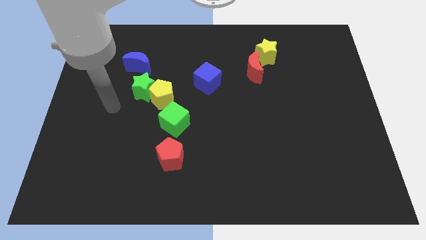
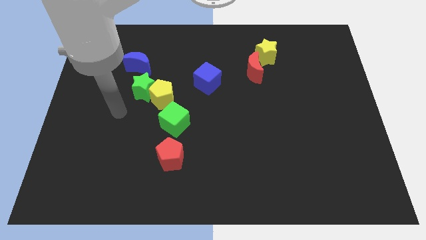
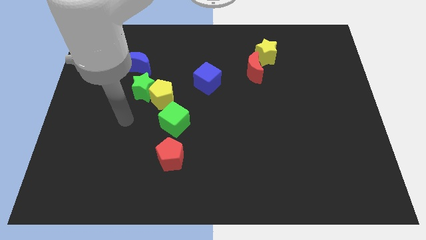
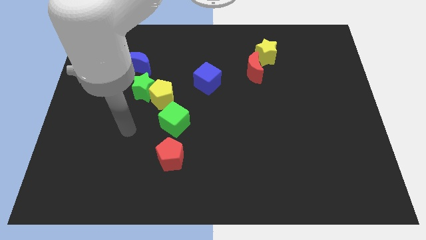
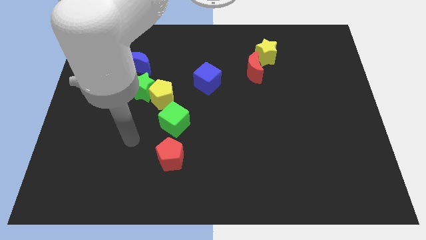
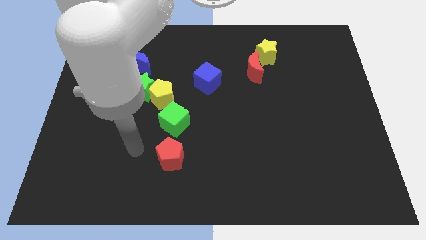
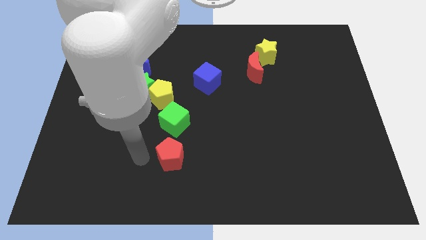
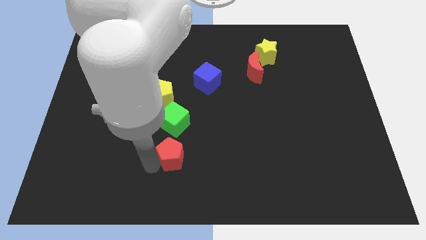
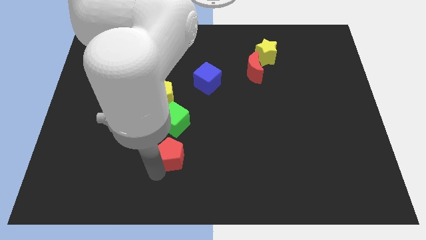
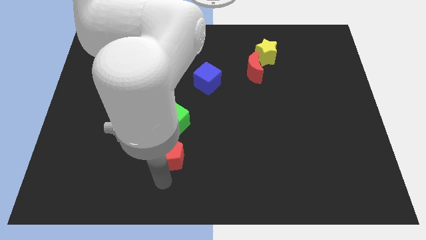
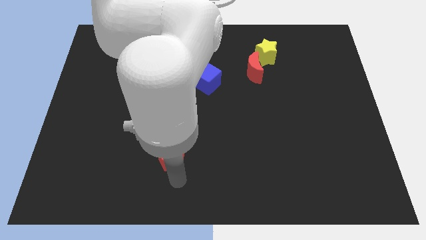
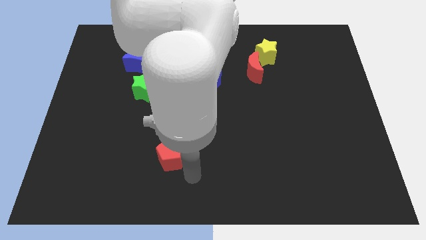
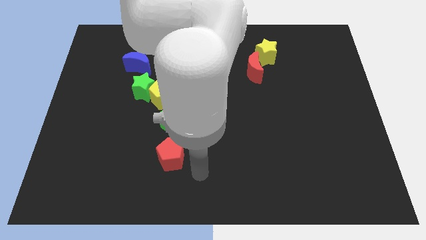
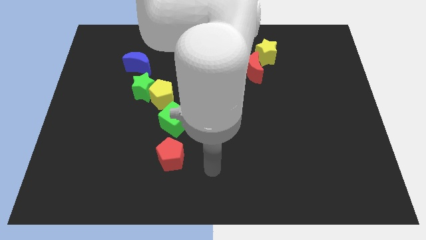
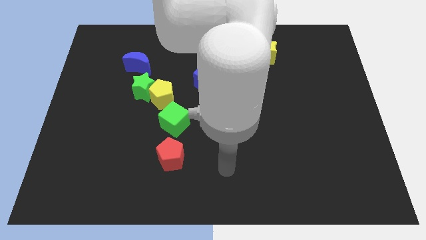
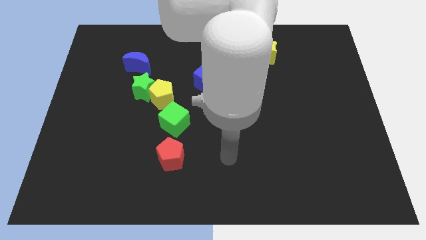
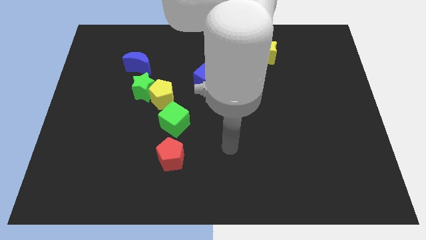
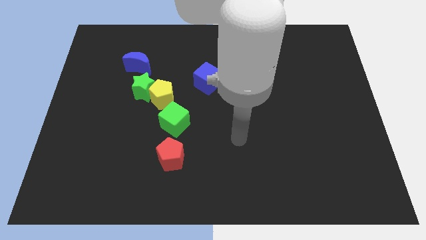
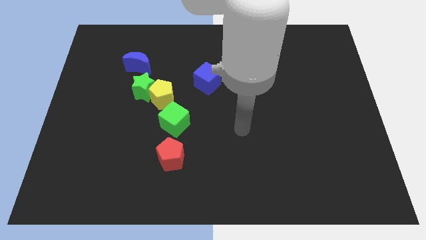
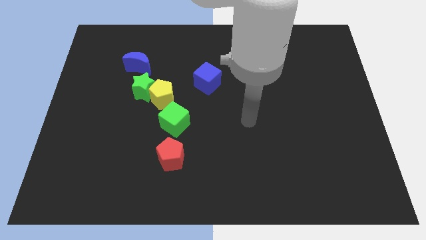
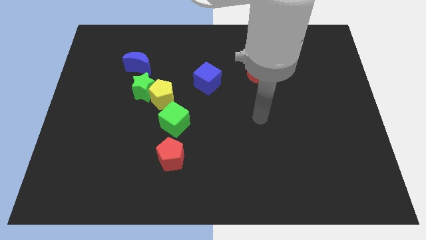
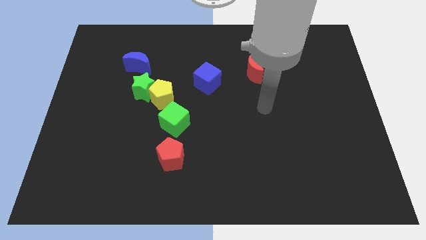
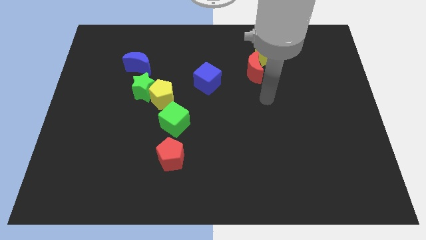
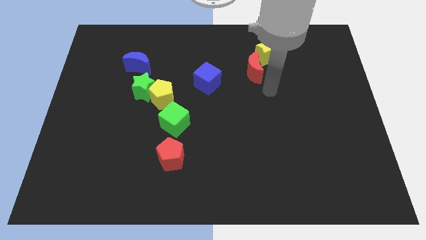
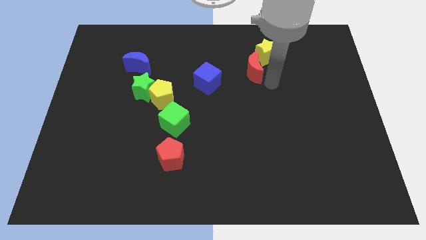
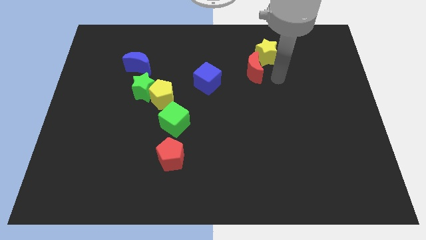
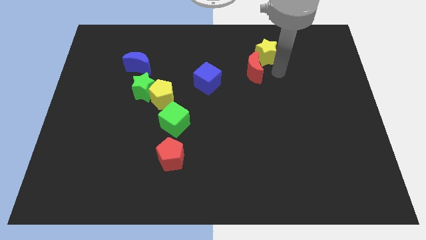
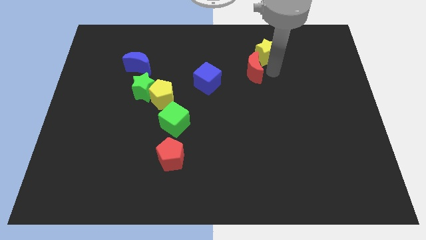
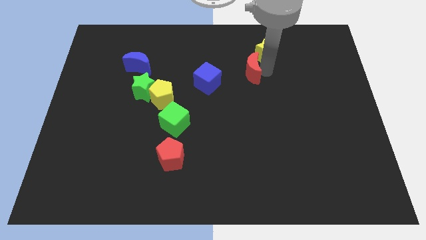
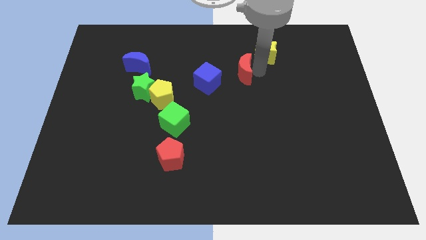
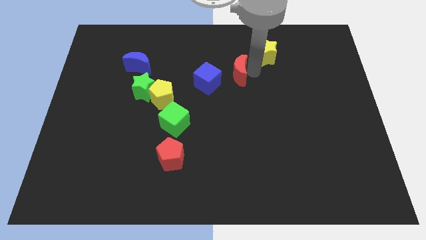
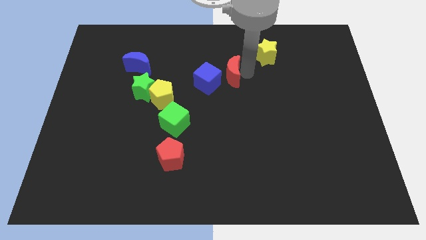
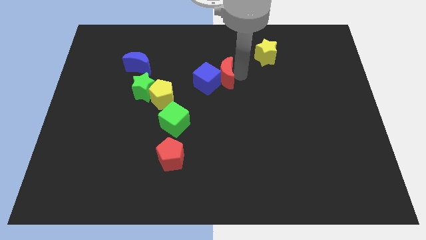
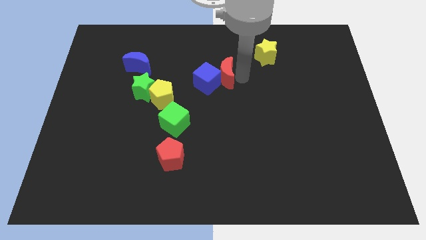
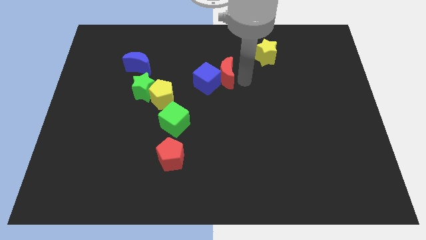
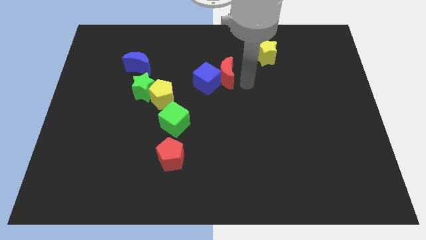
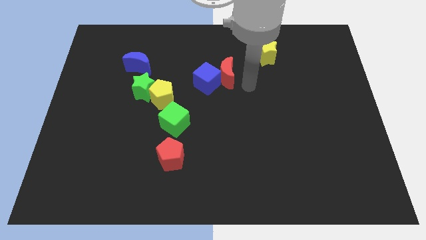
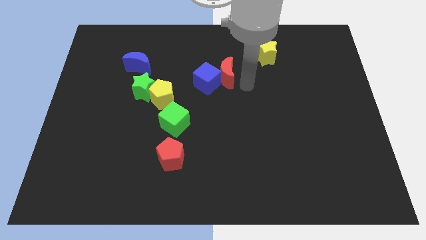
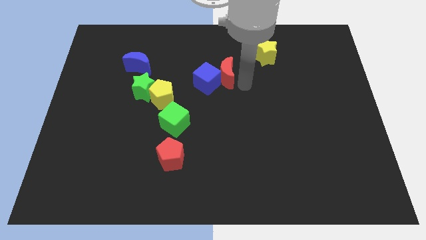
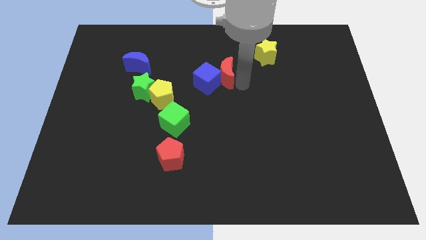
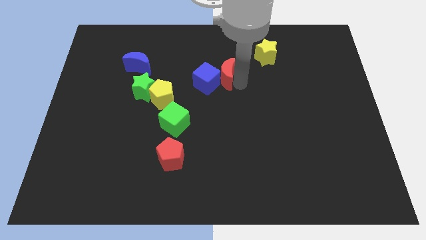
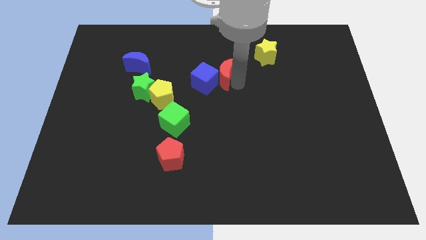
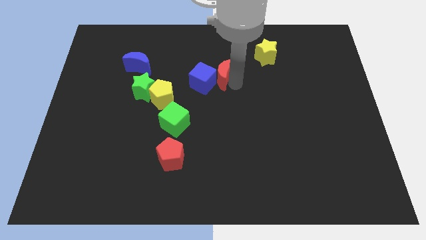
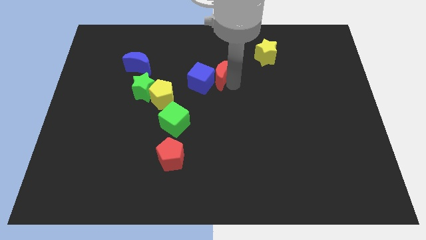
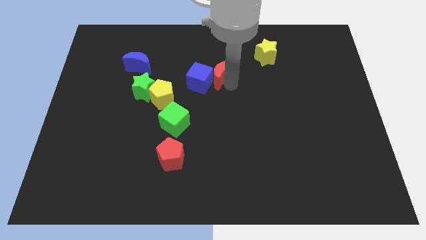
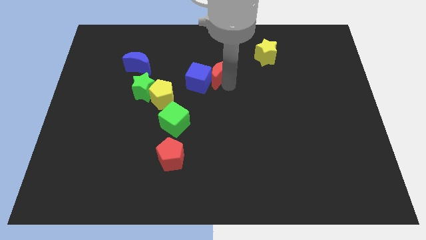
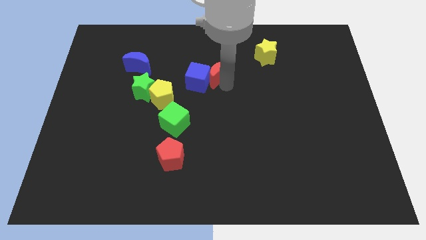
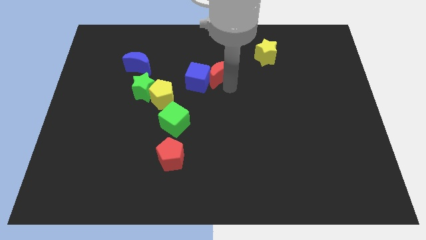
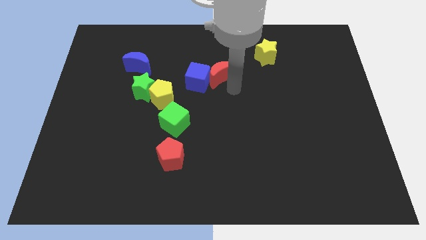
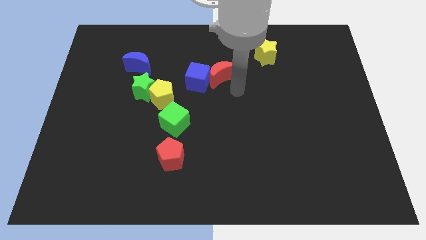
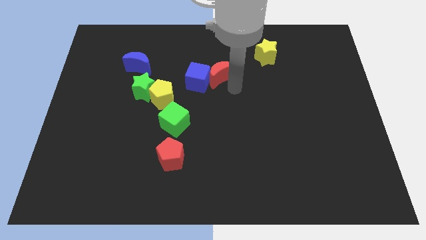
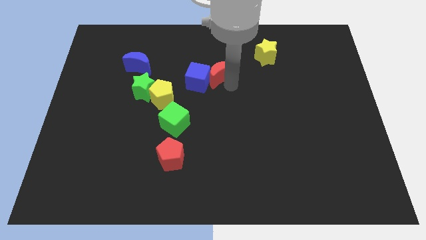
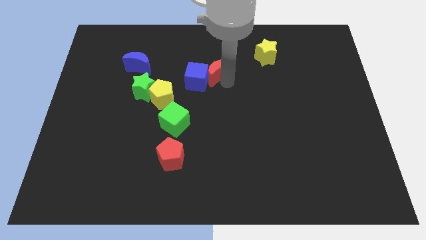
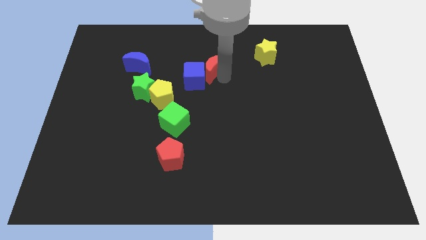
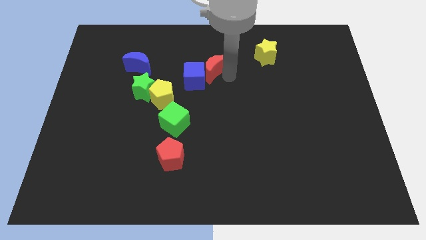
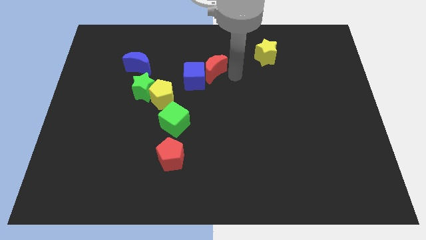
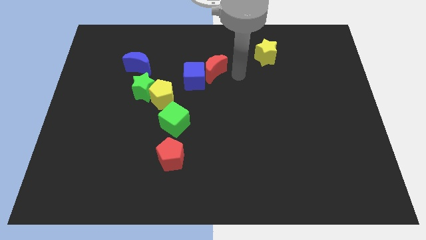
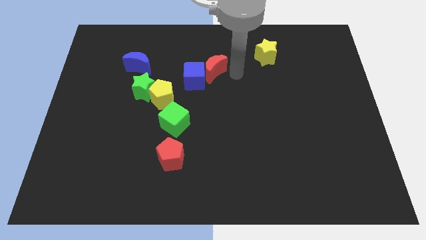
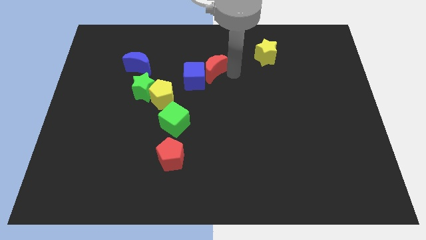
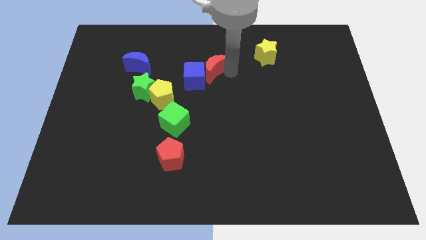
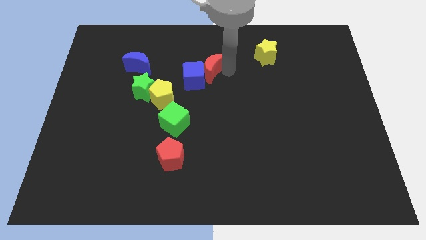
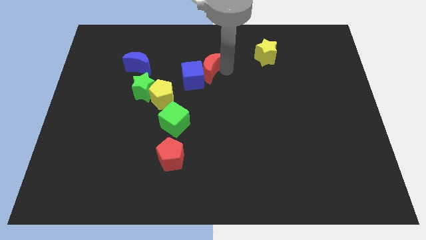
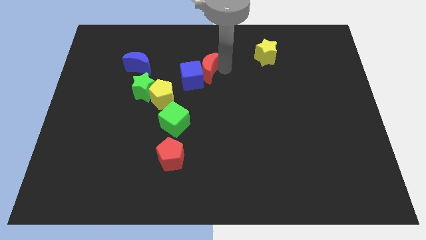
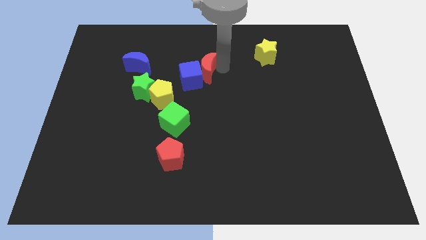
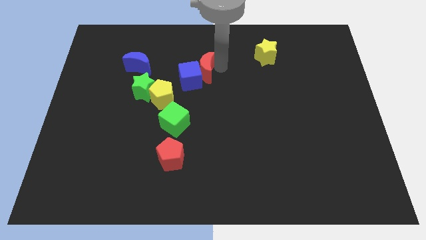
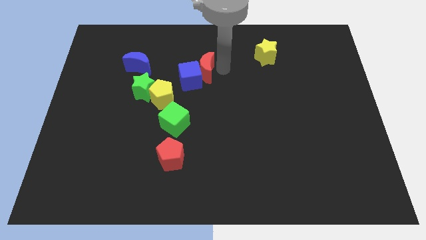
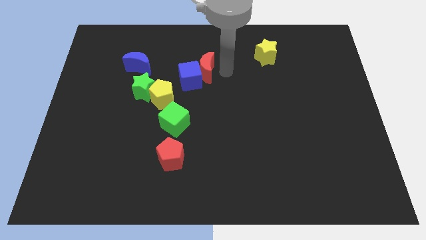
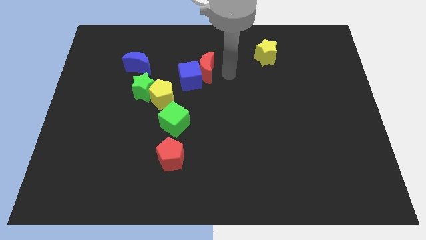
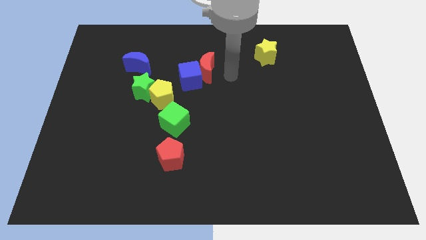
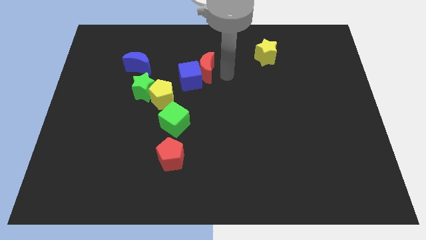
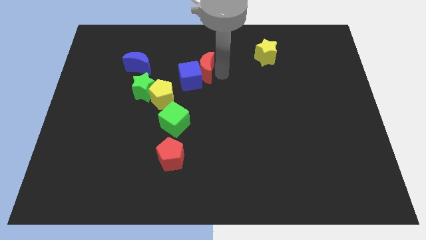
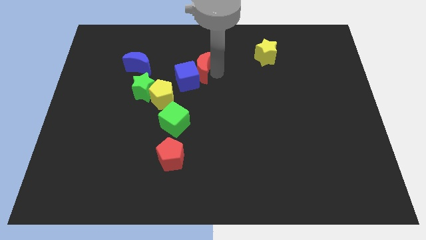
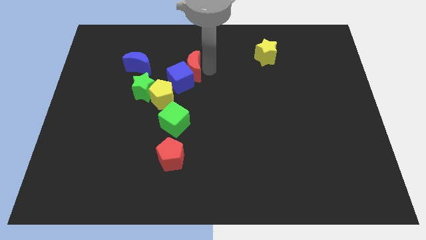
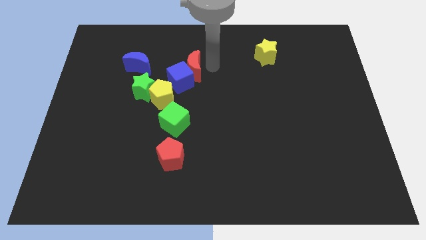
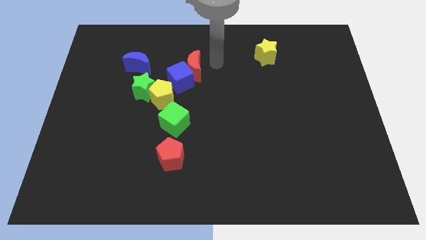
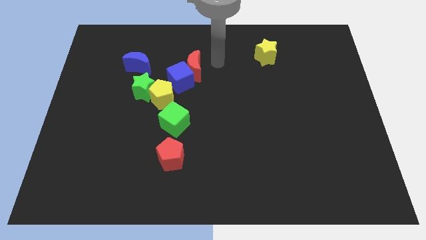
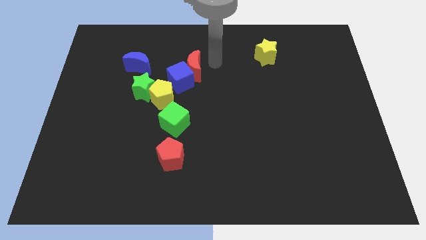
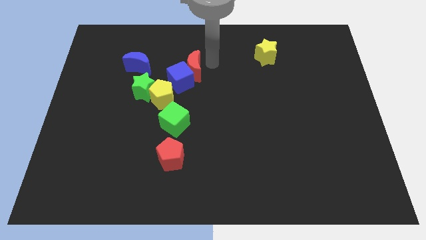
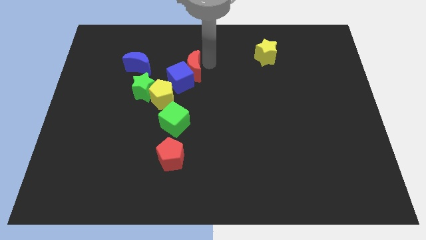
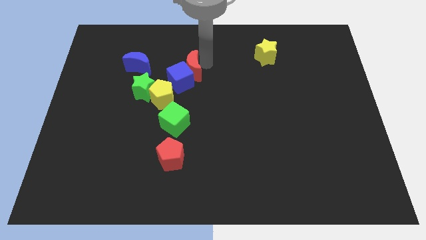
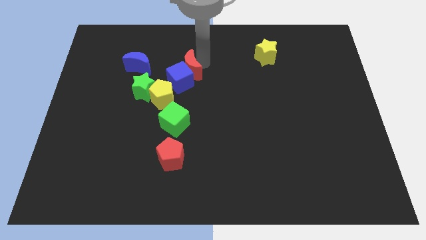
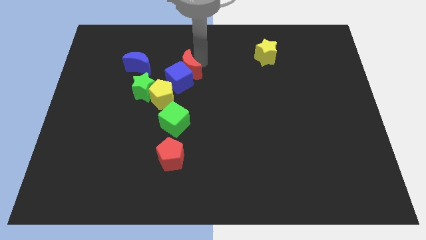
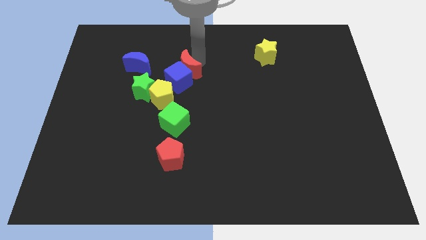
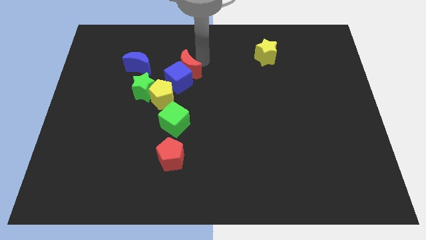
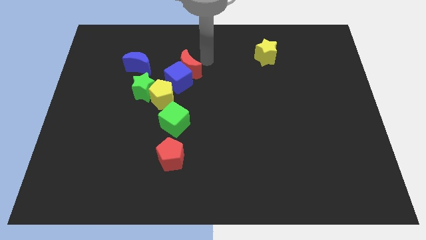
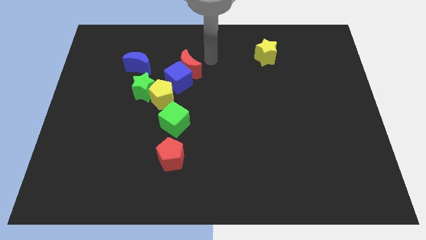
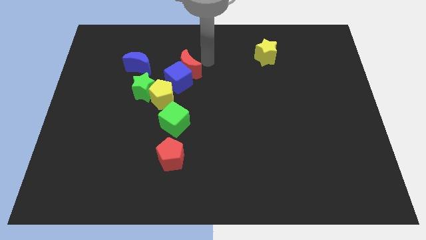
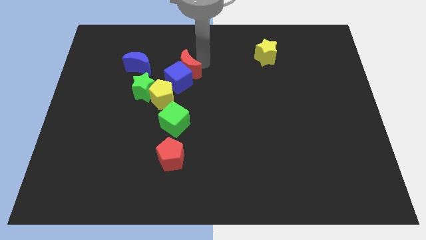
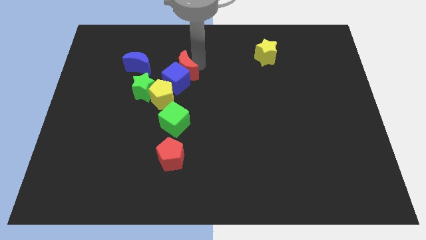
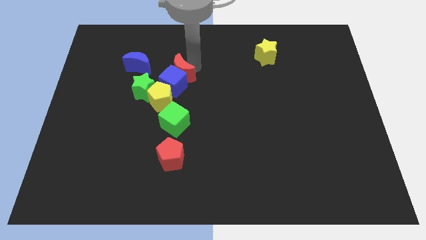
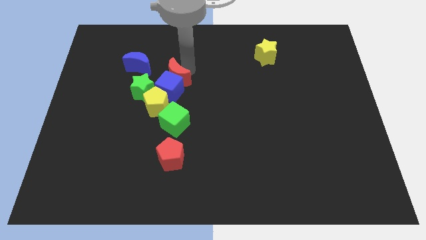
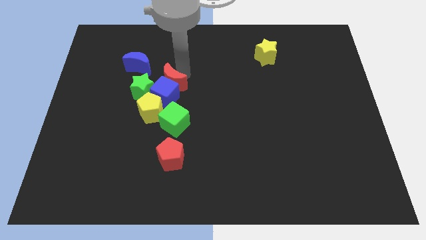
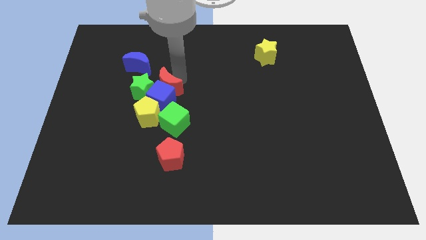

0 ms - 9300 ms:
move the red moon towards the green star
